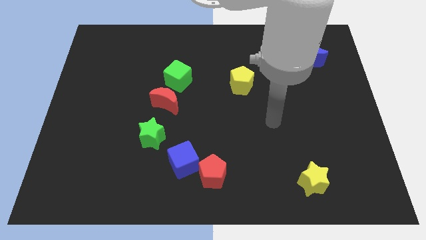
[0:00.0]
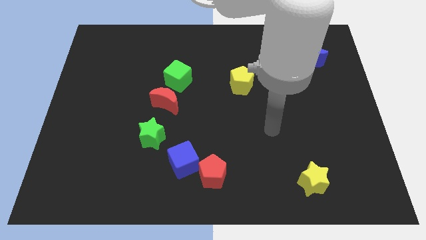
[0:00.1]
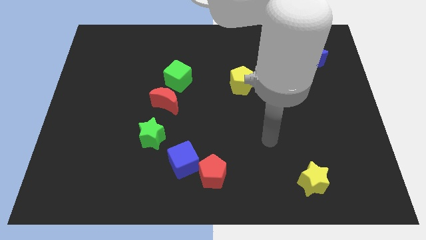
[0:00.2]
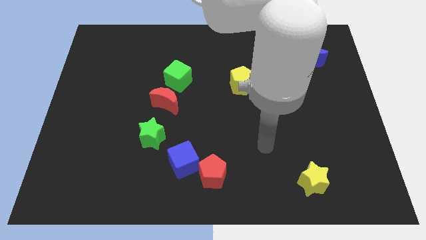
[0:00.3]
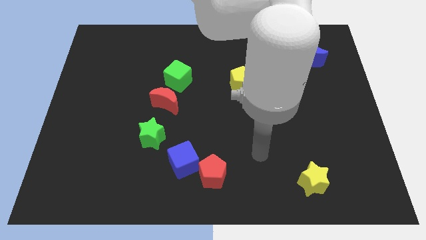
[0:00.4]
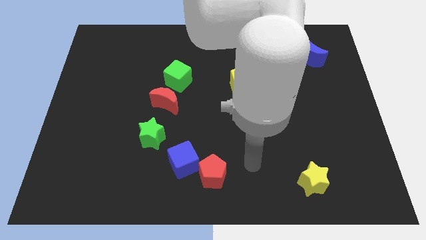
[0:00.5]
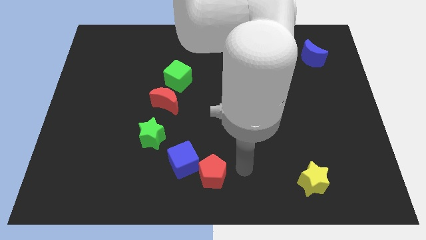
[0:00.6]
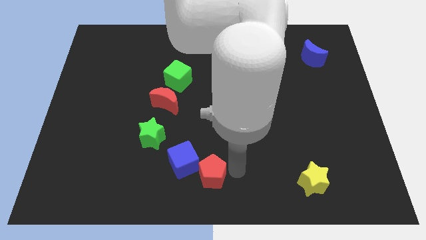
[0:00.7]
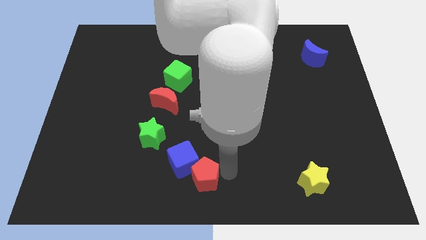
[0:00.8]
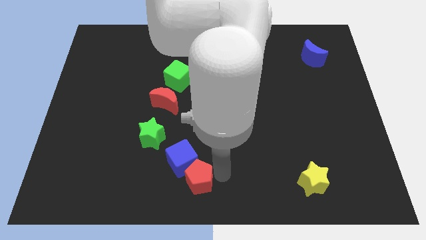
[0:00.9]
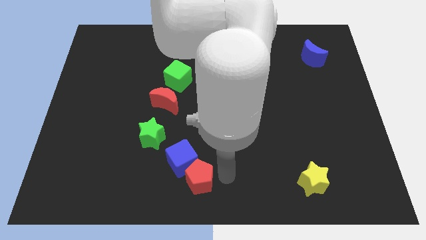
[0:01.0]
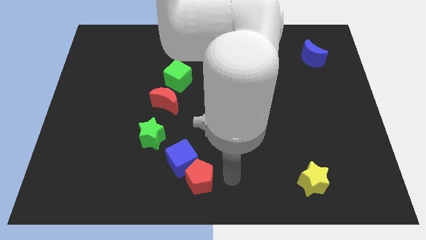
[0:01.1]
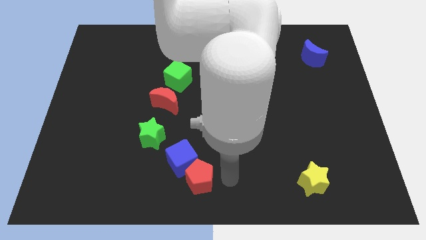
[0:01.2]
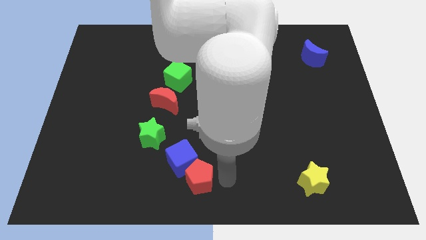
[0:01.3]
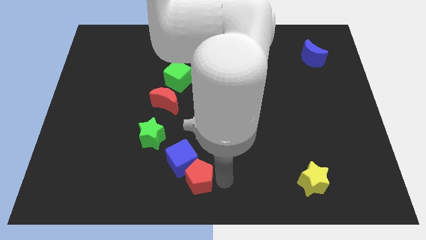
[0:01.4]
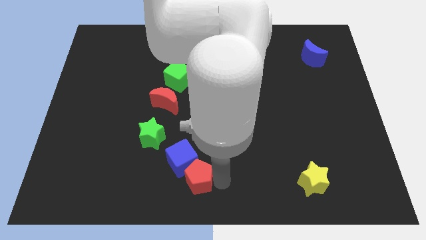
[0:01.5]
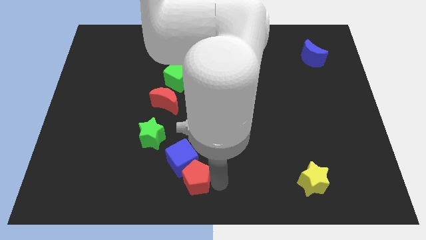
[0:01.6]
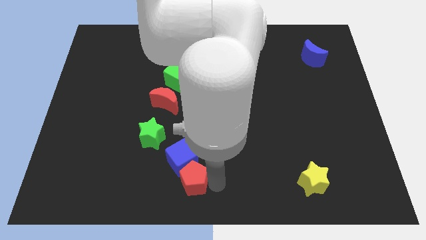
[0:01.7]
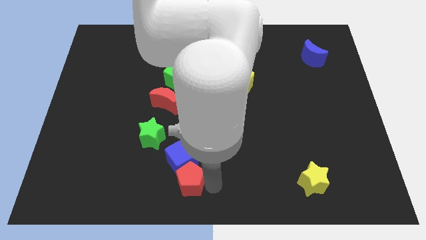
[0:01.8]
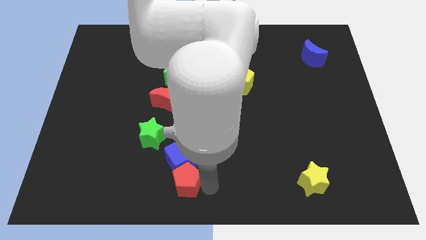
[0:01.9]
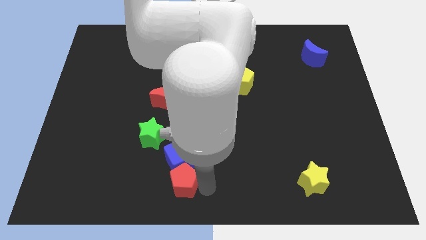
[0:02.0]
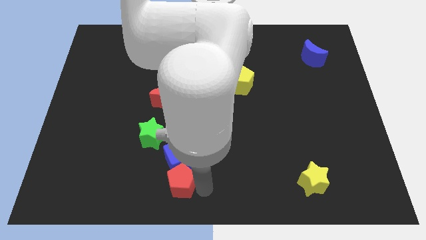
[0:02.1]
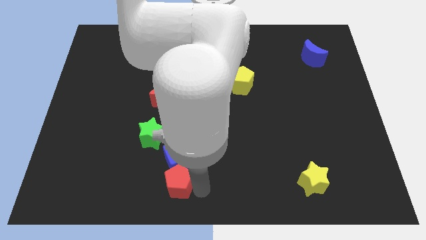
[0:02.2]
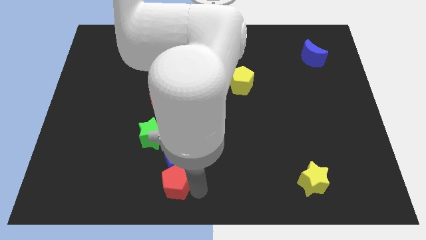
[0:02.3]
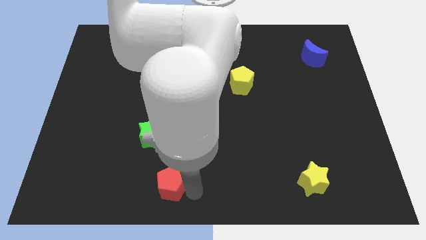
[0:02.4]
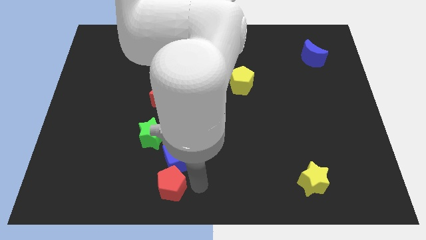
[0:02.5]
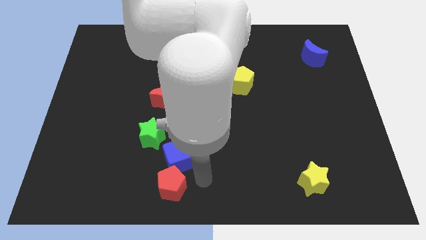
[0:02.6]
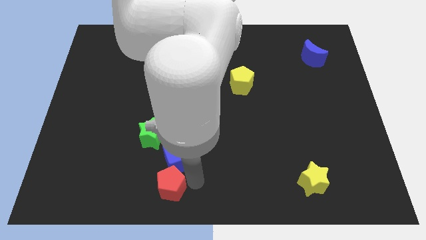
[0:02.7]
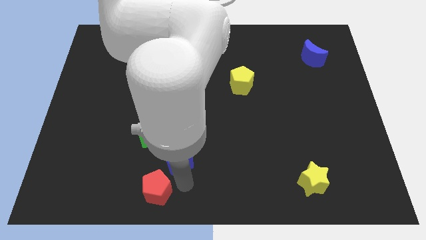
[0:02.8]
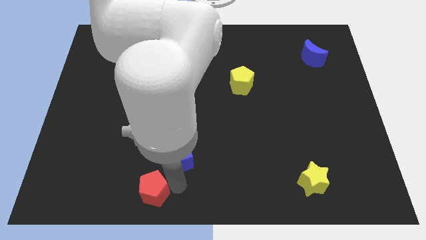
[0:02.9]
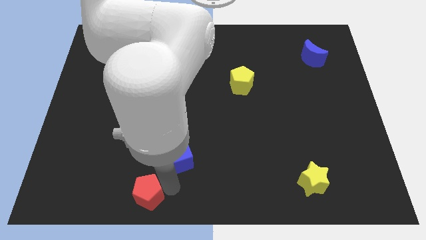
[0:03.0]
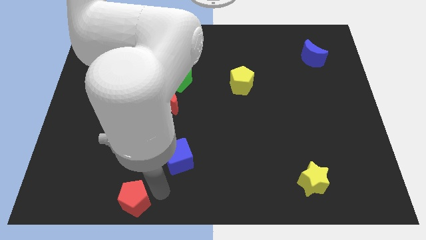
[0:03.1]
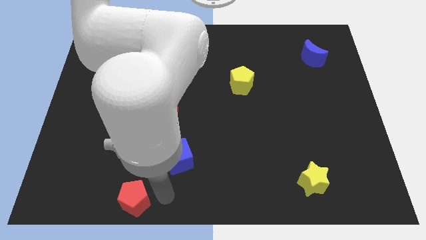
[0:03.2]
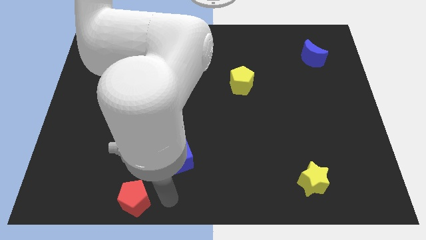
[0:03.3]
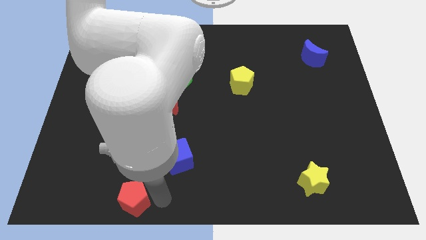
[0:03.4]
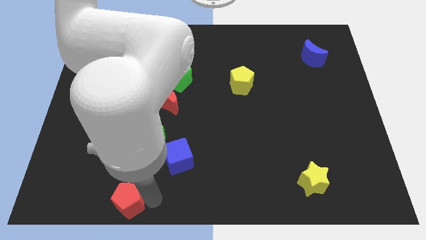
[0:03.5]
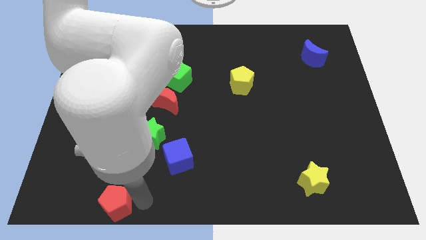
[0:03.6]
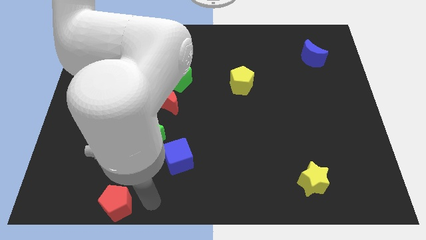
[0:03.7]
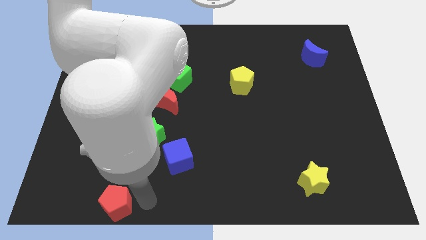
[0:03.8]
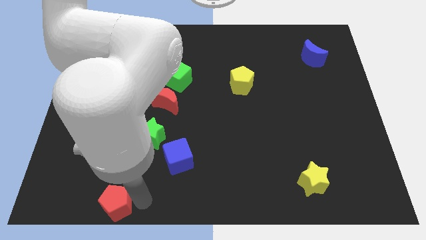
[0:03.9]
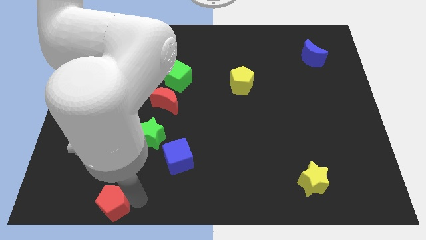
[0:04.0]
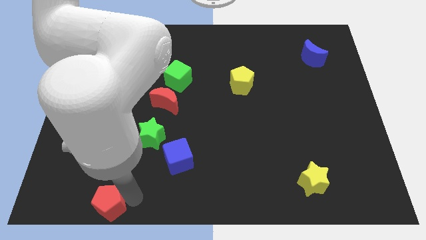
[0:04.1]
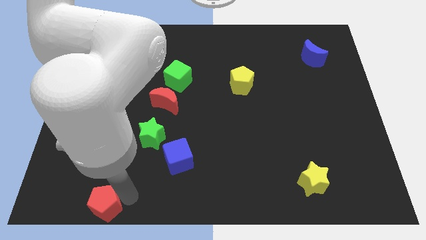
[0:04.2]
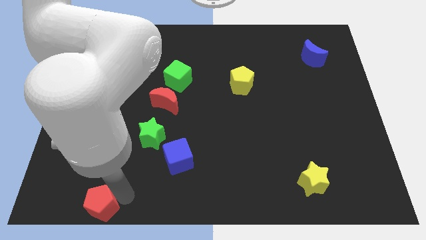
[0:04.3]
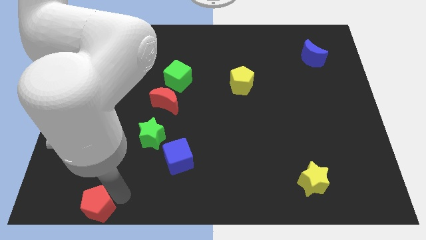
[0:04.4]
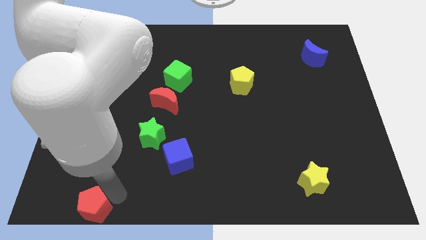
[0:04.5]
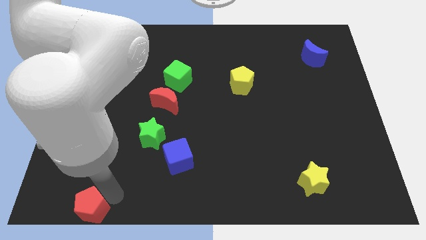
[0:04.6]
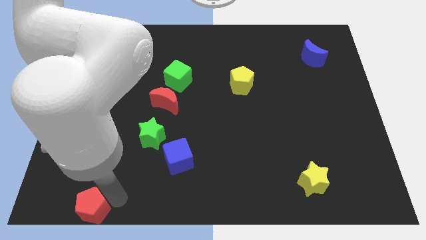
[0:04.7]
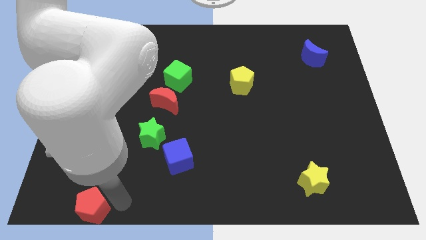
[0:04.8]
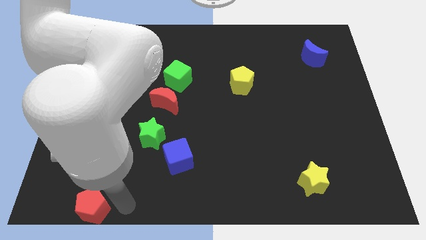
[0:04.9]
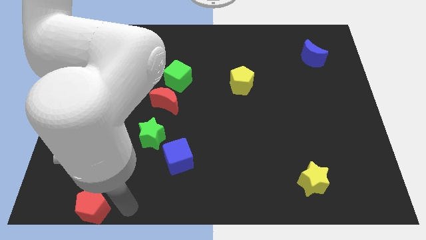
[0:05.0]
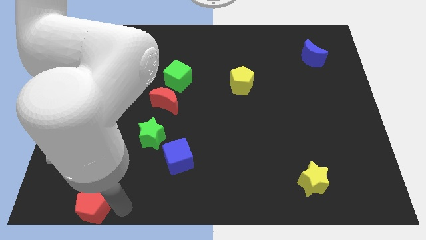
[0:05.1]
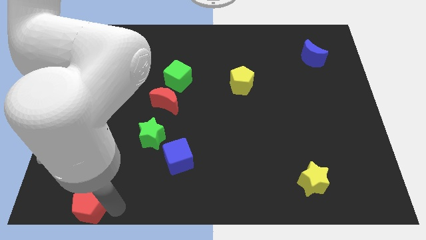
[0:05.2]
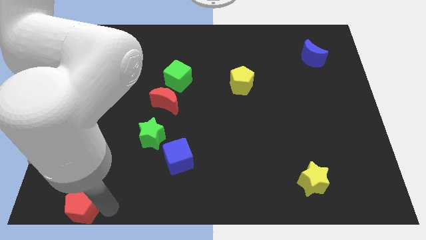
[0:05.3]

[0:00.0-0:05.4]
move the red pentagon to the bottom left of the board

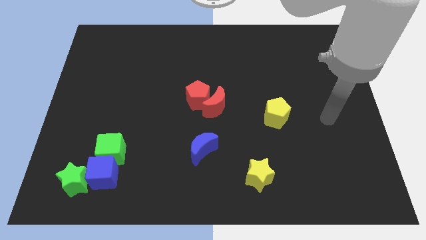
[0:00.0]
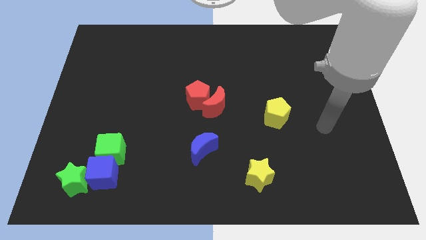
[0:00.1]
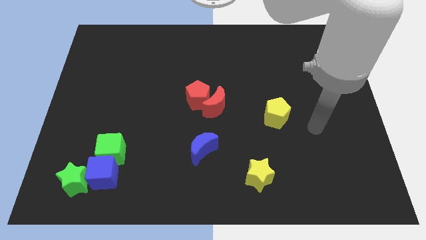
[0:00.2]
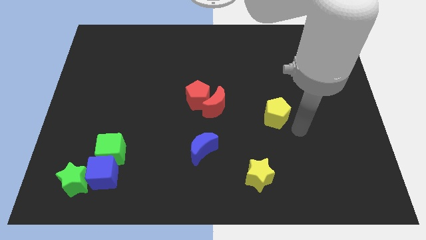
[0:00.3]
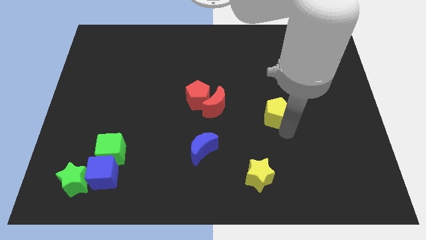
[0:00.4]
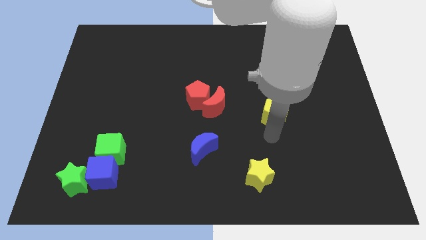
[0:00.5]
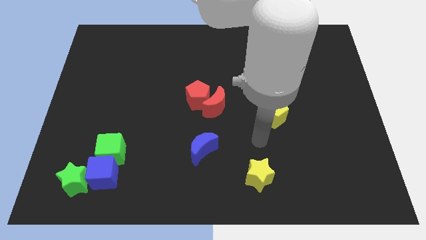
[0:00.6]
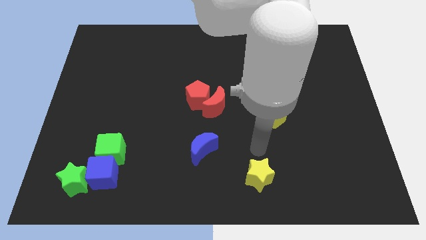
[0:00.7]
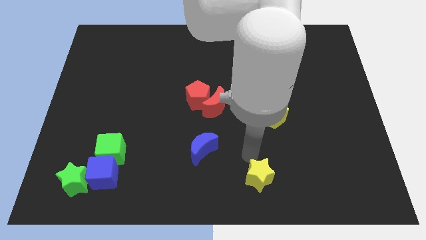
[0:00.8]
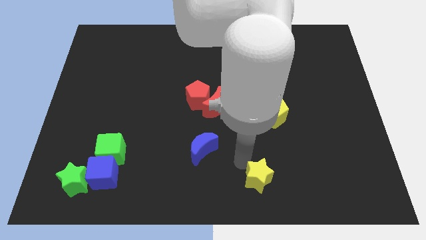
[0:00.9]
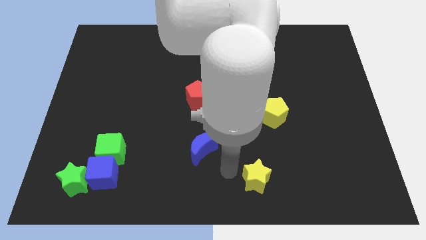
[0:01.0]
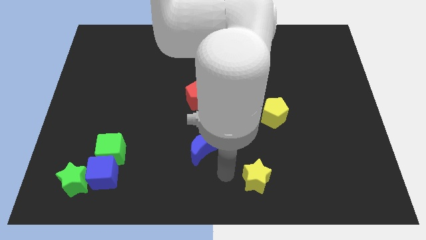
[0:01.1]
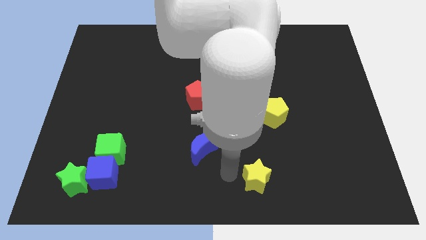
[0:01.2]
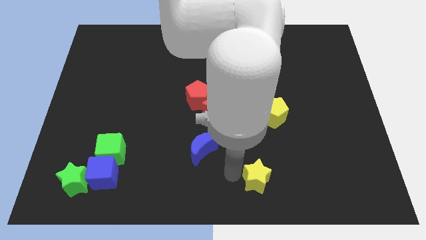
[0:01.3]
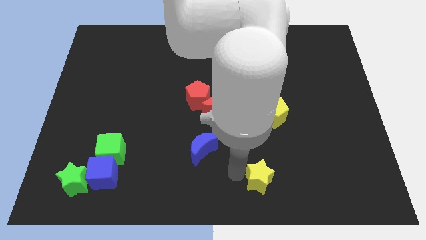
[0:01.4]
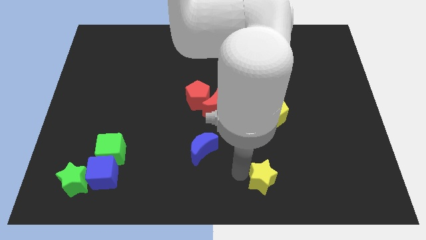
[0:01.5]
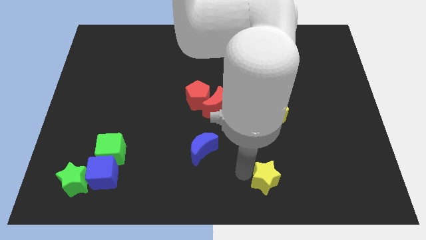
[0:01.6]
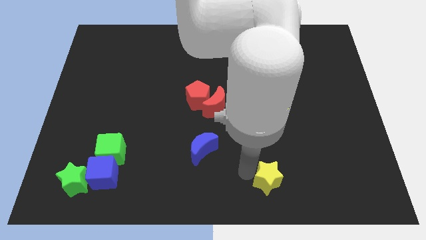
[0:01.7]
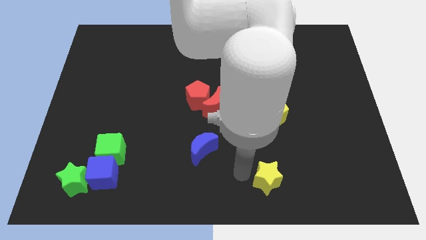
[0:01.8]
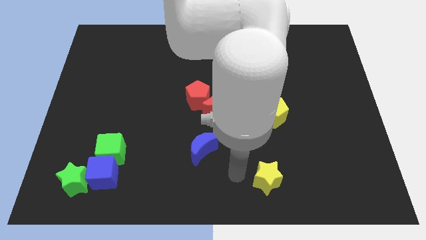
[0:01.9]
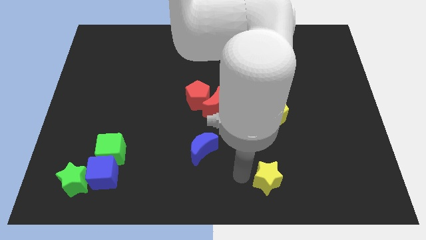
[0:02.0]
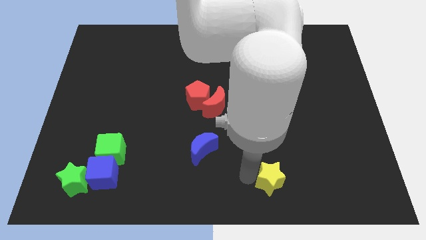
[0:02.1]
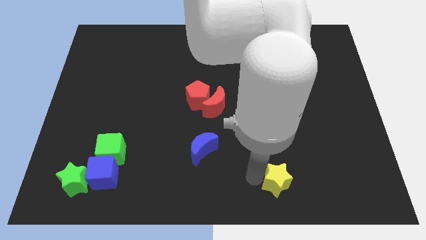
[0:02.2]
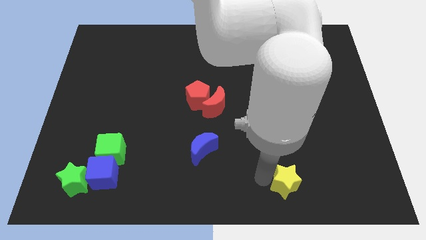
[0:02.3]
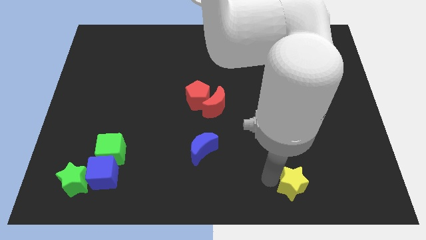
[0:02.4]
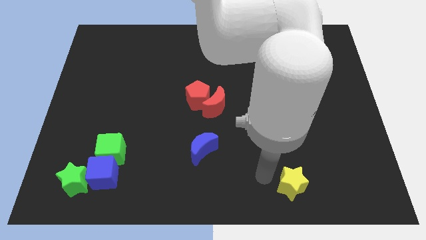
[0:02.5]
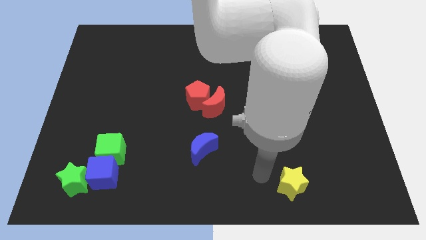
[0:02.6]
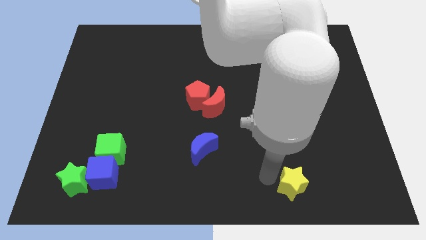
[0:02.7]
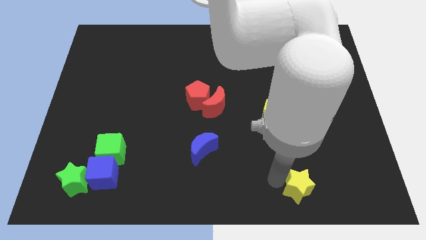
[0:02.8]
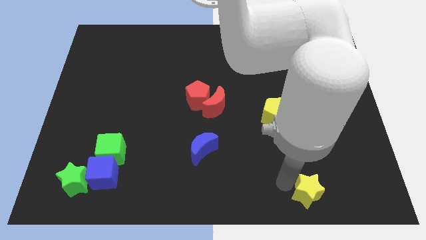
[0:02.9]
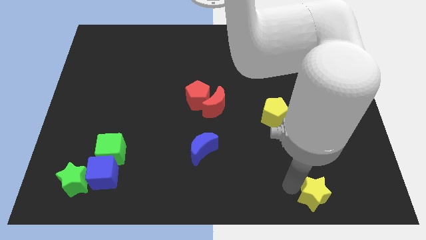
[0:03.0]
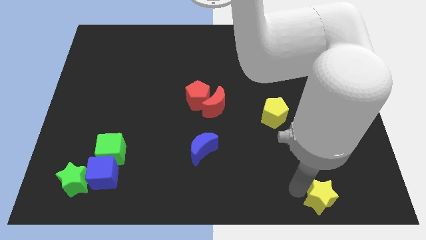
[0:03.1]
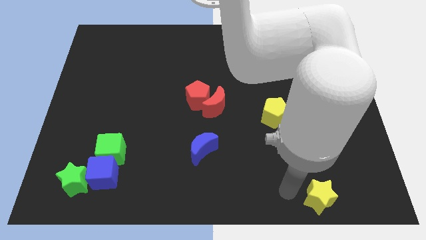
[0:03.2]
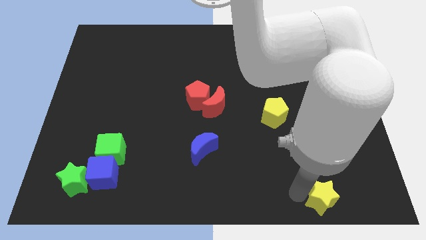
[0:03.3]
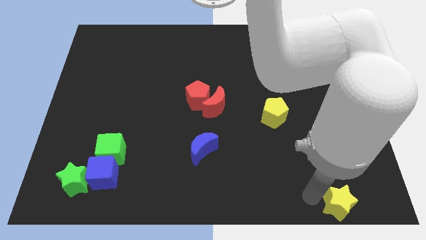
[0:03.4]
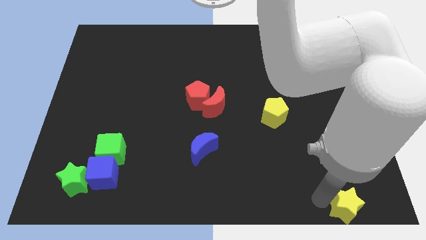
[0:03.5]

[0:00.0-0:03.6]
push the yellow star to the bottom right
